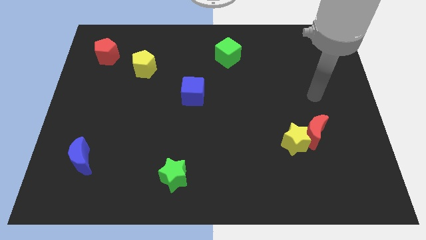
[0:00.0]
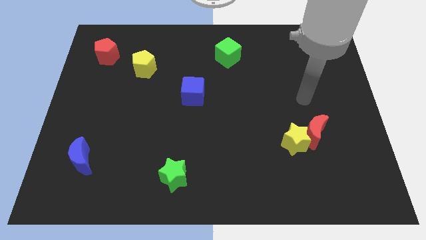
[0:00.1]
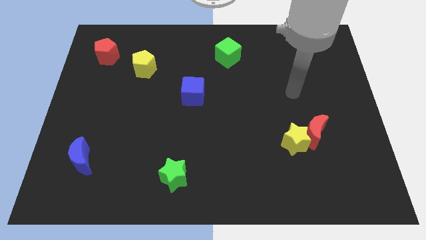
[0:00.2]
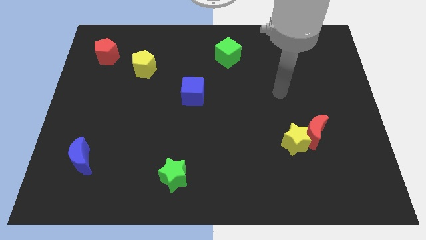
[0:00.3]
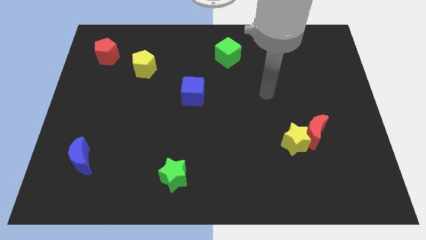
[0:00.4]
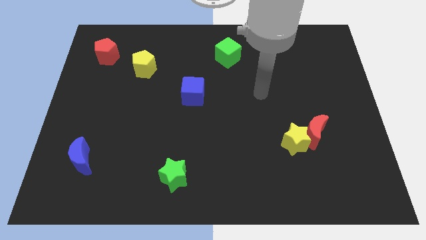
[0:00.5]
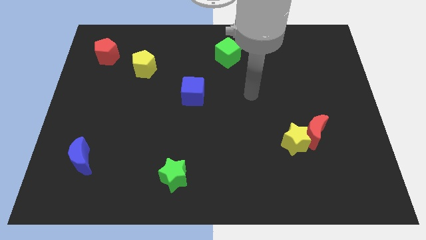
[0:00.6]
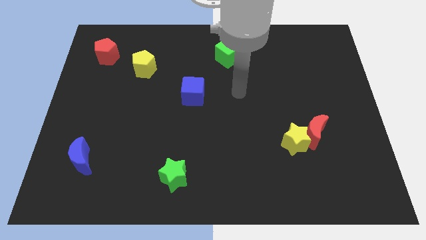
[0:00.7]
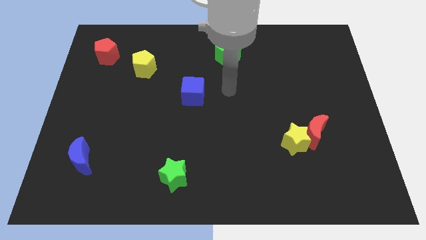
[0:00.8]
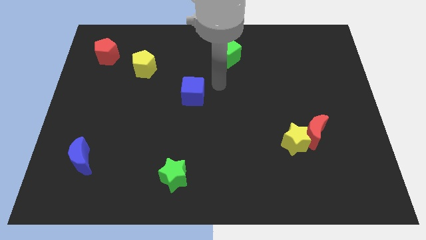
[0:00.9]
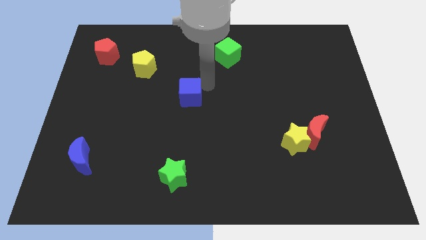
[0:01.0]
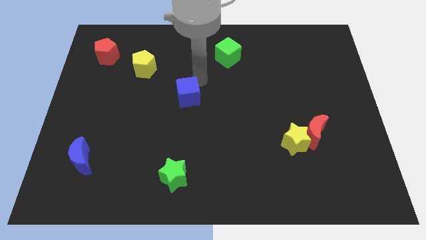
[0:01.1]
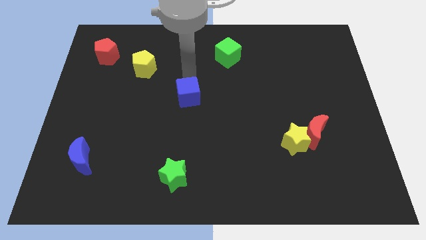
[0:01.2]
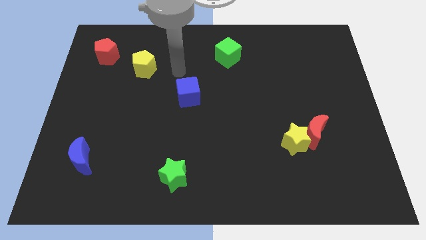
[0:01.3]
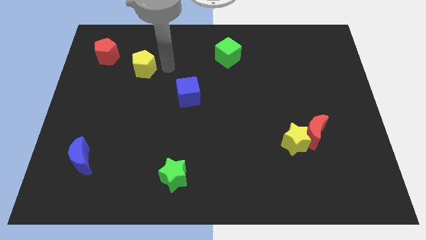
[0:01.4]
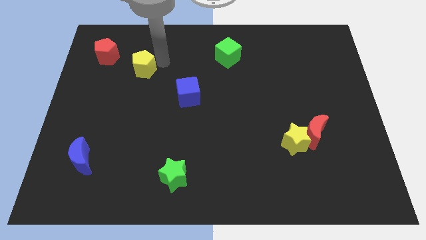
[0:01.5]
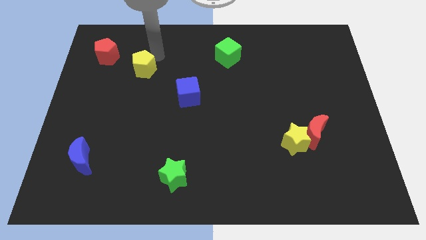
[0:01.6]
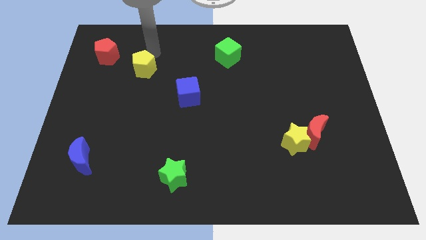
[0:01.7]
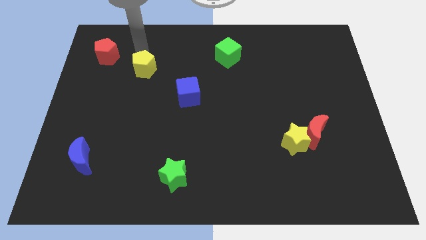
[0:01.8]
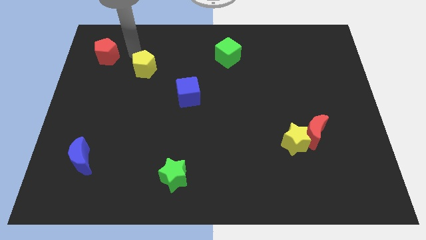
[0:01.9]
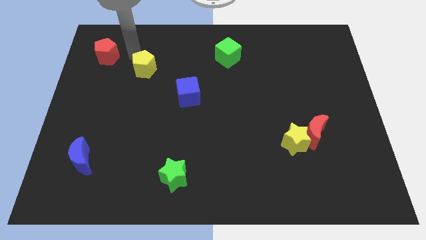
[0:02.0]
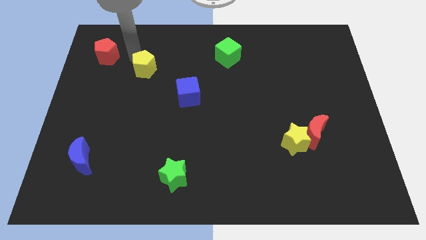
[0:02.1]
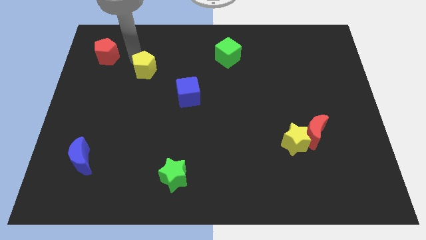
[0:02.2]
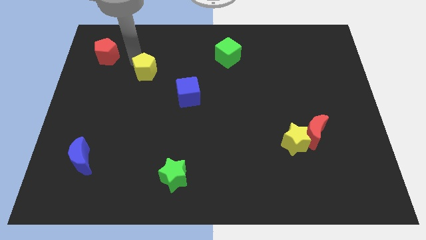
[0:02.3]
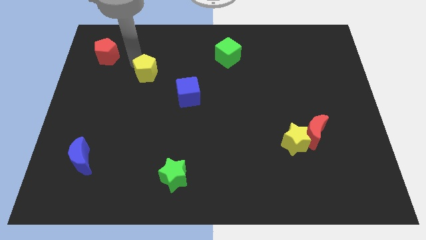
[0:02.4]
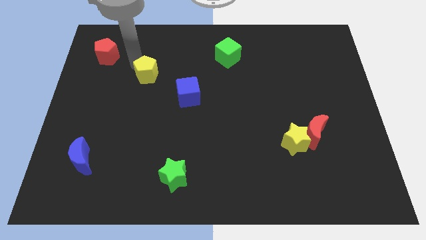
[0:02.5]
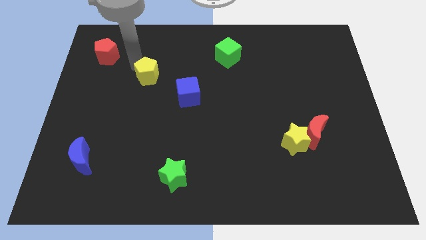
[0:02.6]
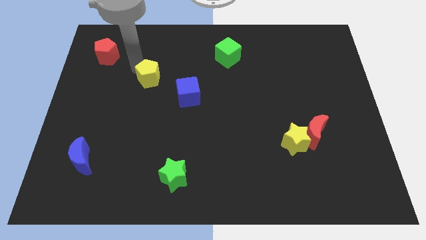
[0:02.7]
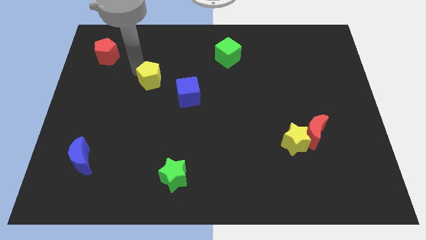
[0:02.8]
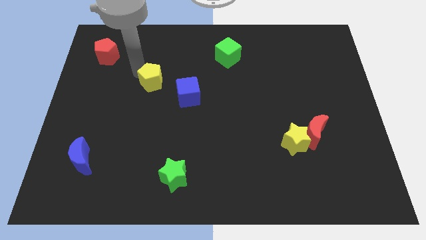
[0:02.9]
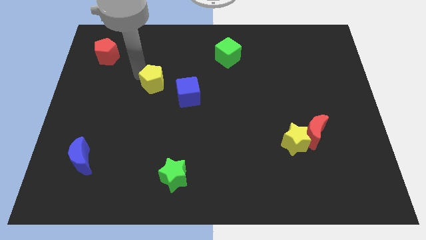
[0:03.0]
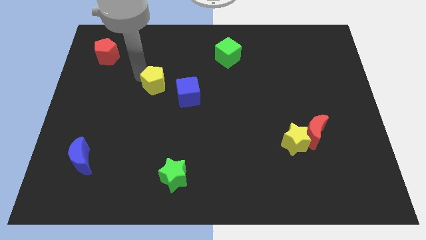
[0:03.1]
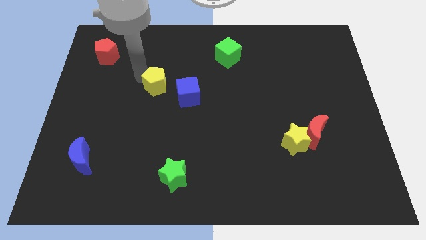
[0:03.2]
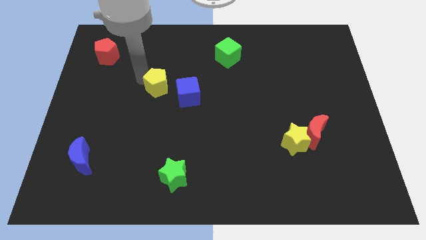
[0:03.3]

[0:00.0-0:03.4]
move the yellow pentagon down and then to the right a little bit

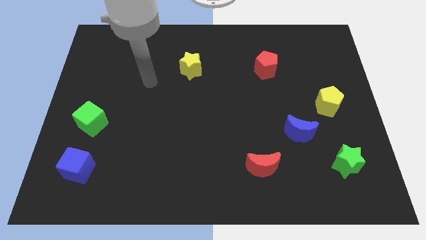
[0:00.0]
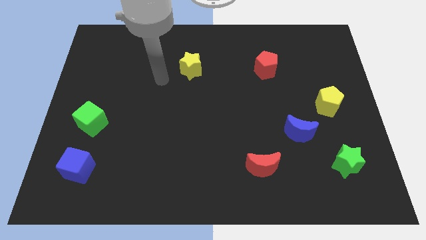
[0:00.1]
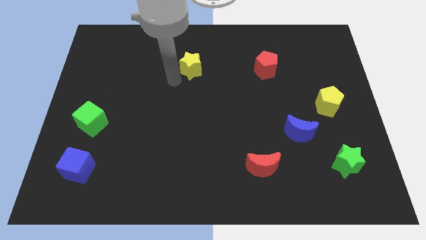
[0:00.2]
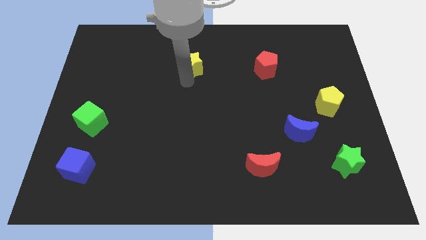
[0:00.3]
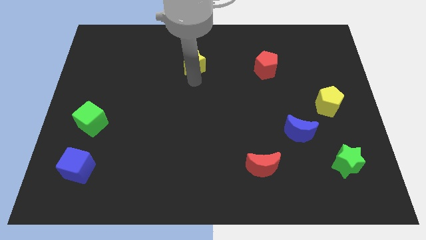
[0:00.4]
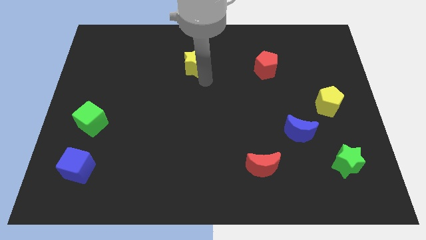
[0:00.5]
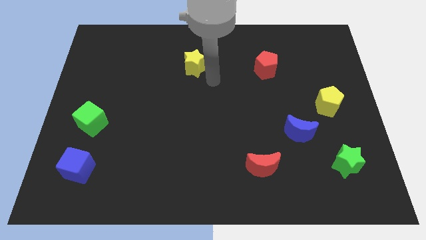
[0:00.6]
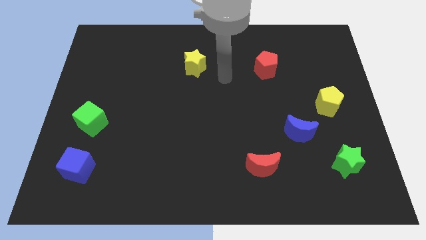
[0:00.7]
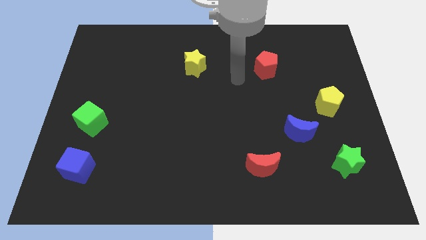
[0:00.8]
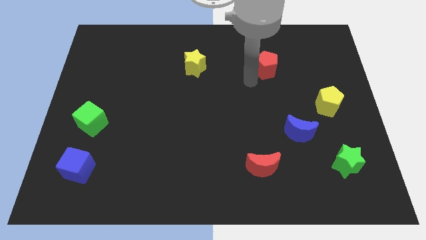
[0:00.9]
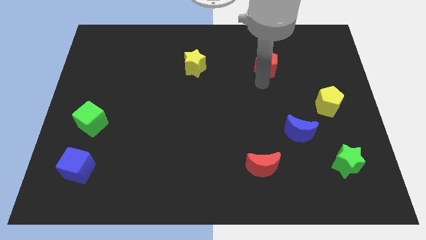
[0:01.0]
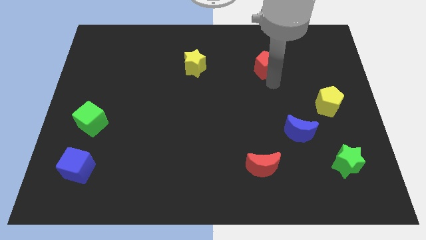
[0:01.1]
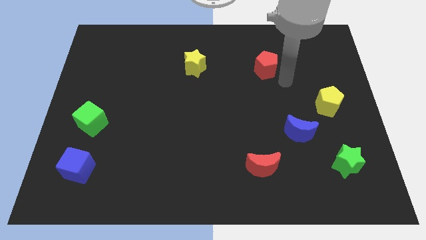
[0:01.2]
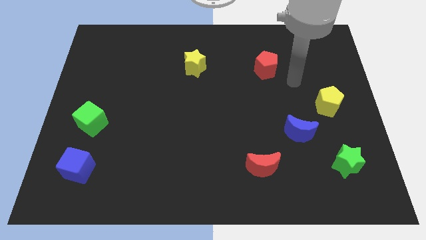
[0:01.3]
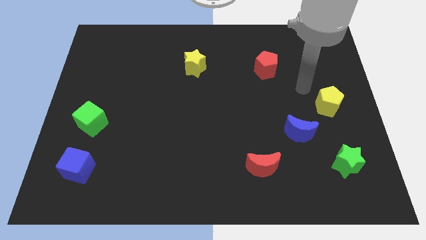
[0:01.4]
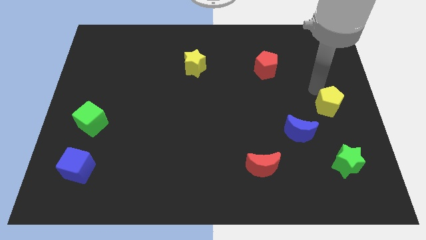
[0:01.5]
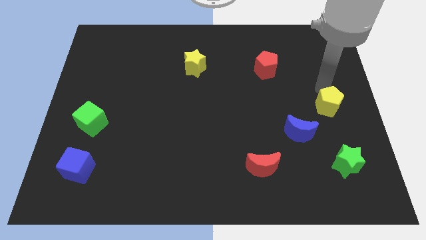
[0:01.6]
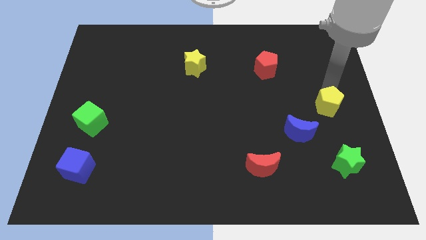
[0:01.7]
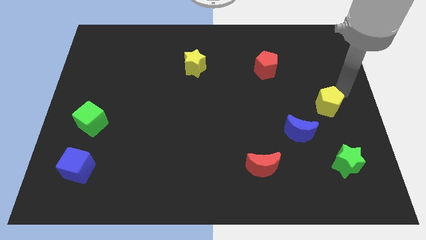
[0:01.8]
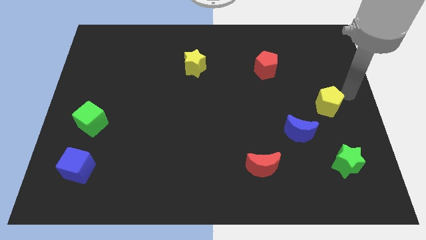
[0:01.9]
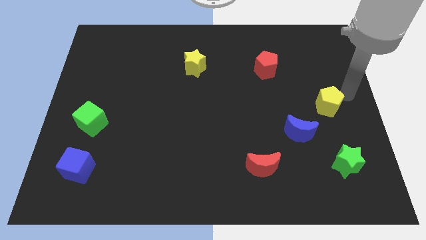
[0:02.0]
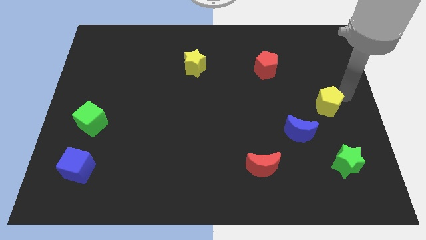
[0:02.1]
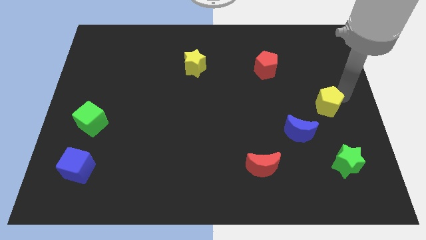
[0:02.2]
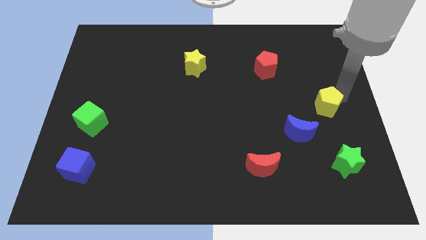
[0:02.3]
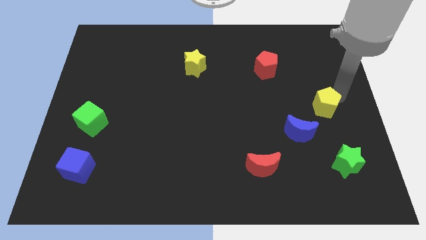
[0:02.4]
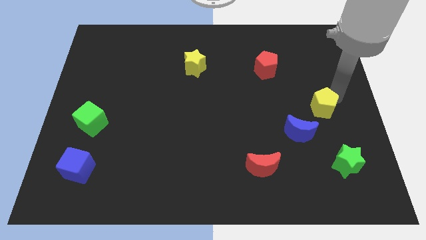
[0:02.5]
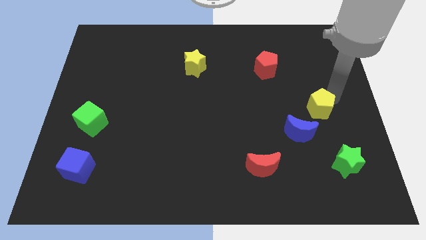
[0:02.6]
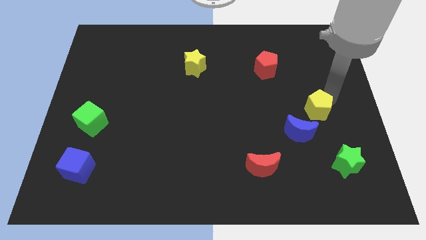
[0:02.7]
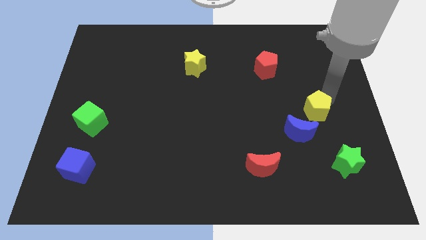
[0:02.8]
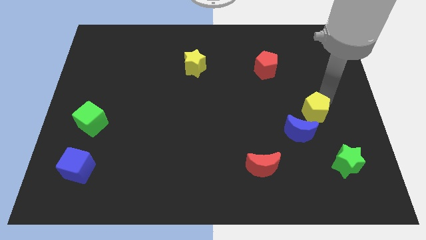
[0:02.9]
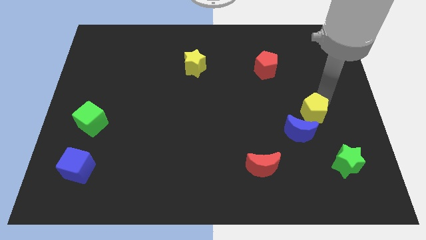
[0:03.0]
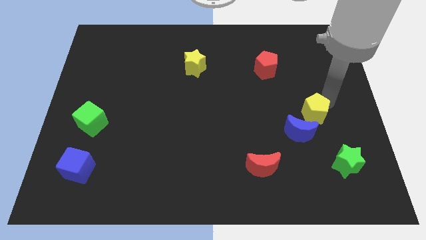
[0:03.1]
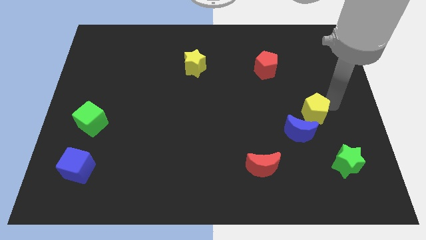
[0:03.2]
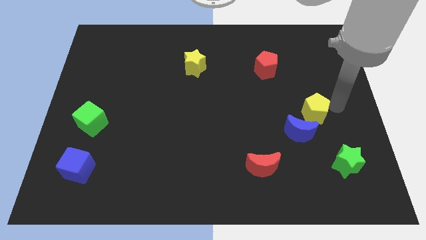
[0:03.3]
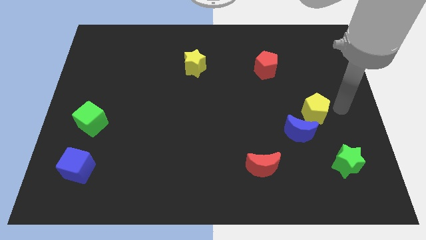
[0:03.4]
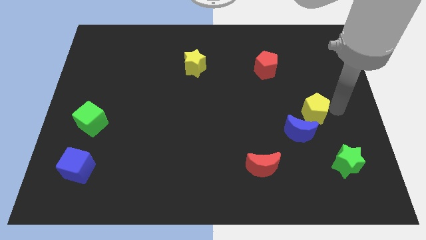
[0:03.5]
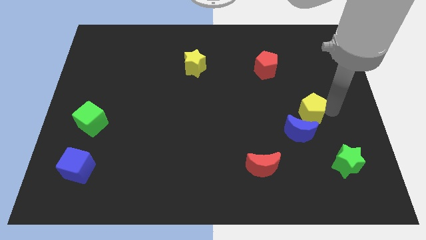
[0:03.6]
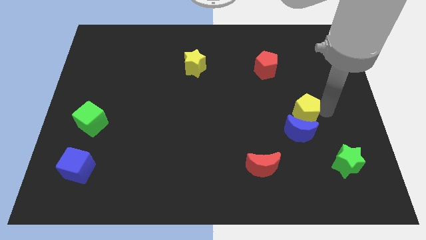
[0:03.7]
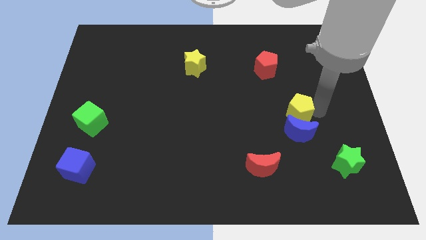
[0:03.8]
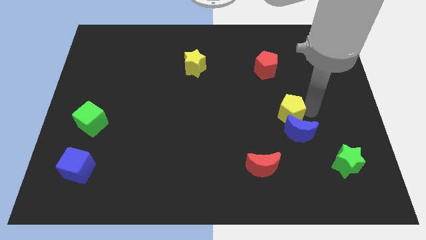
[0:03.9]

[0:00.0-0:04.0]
move the yellow pentagon downwards and then left a little

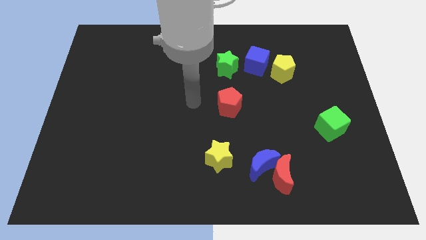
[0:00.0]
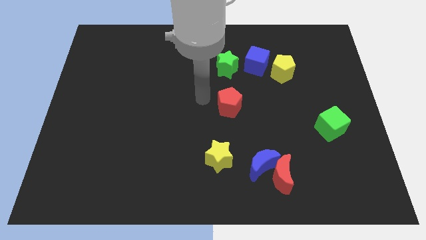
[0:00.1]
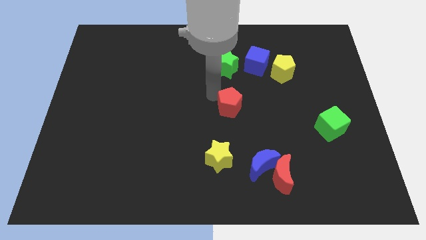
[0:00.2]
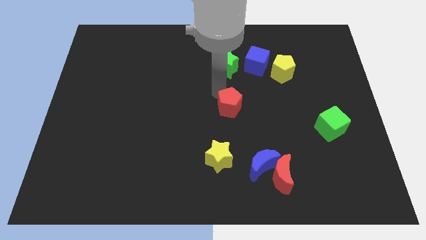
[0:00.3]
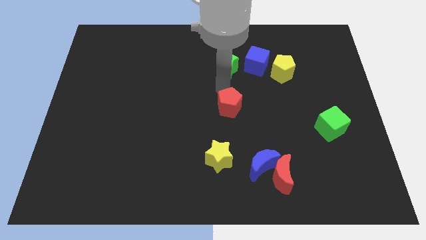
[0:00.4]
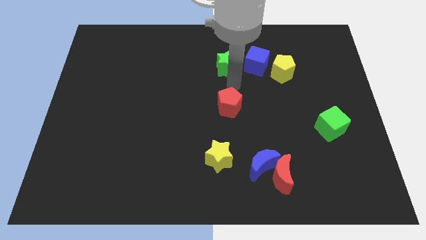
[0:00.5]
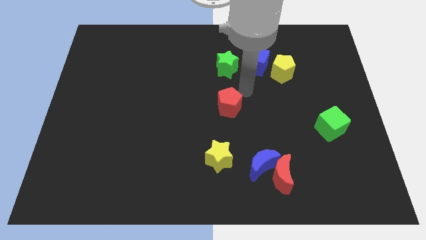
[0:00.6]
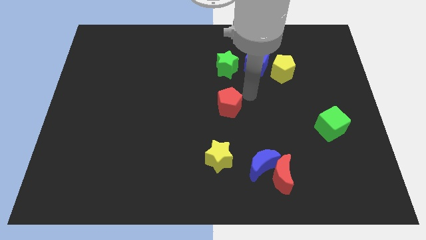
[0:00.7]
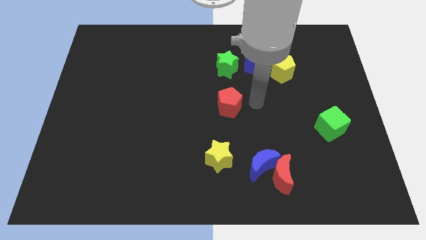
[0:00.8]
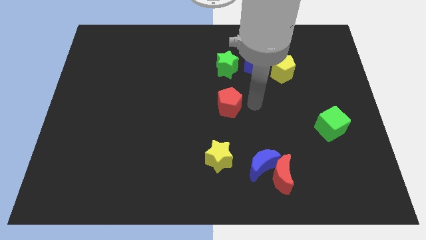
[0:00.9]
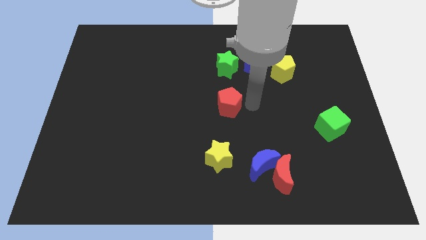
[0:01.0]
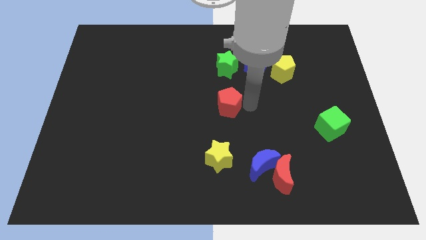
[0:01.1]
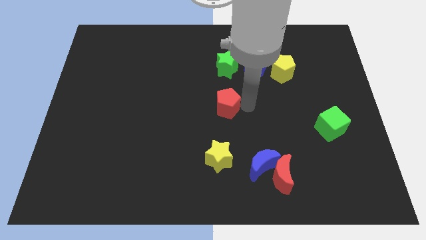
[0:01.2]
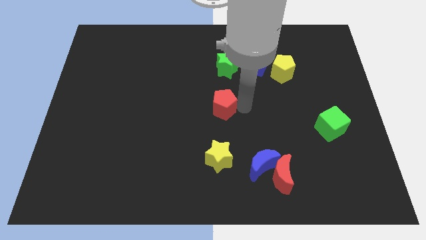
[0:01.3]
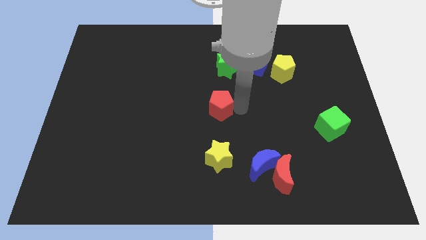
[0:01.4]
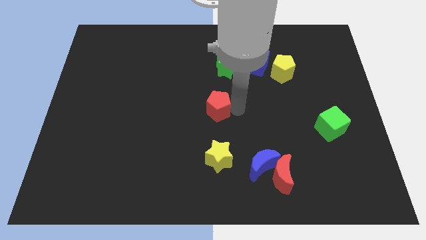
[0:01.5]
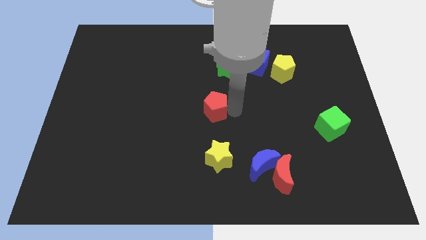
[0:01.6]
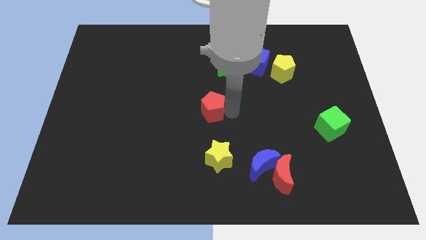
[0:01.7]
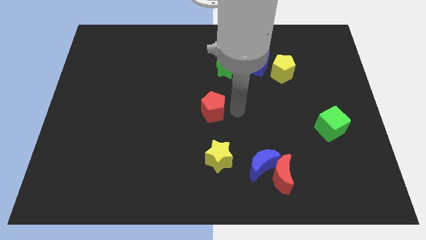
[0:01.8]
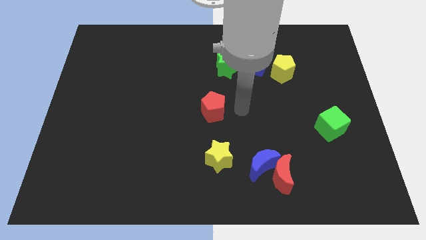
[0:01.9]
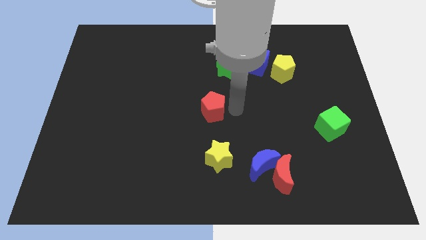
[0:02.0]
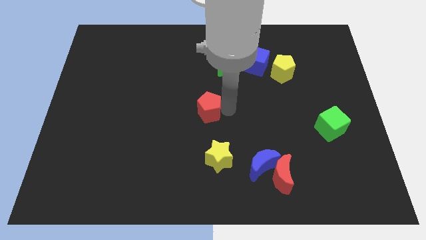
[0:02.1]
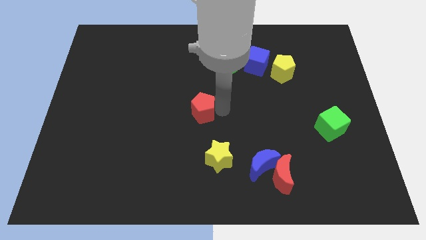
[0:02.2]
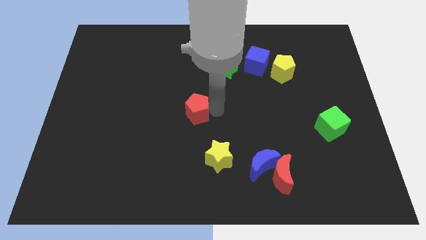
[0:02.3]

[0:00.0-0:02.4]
slide the red pentagon a little left
